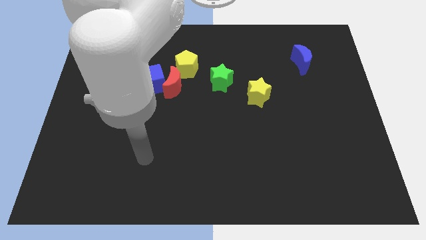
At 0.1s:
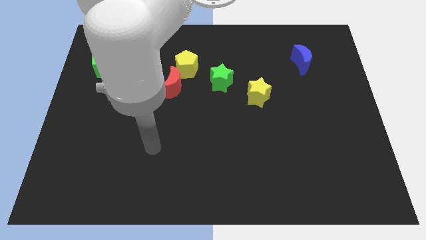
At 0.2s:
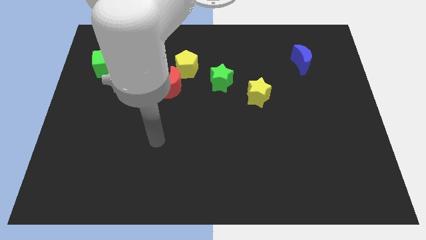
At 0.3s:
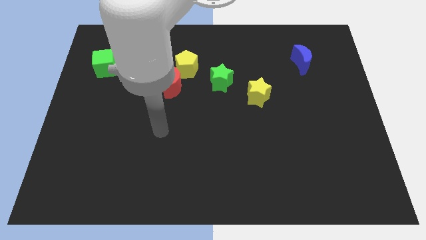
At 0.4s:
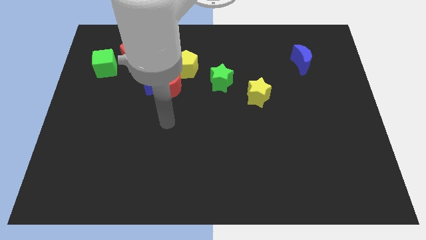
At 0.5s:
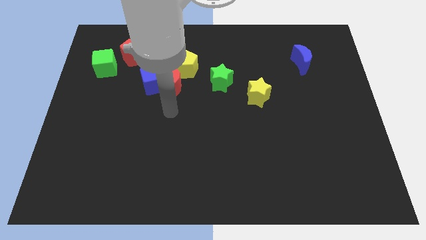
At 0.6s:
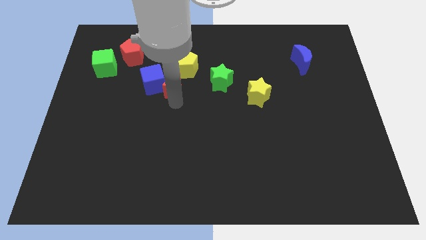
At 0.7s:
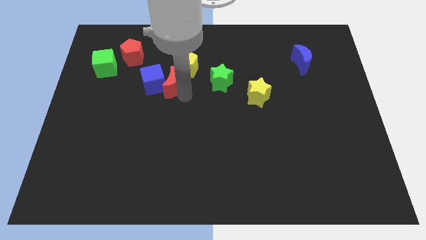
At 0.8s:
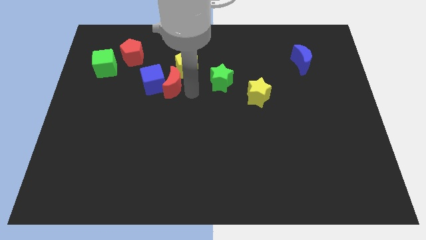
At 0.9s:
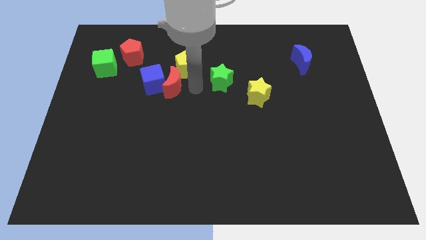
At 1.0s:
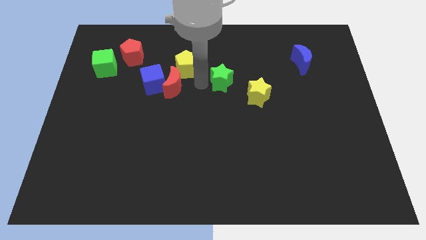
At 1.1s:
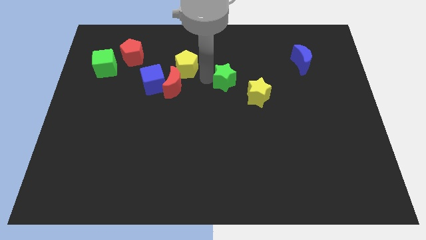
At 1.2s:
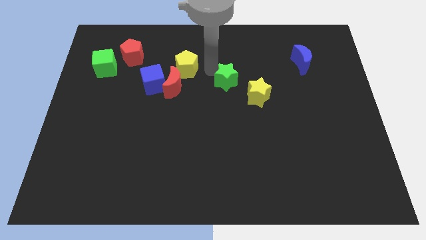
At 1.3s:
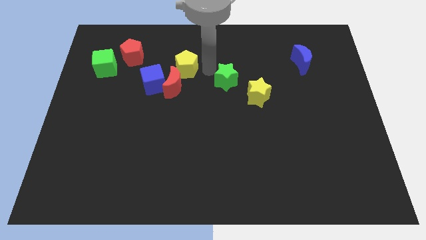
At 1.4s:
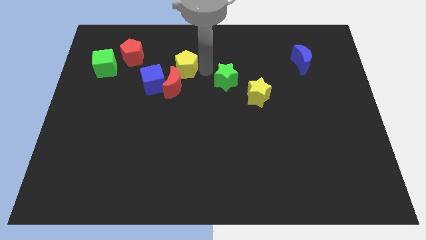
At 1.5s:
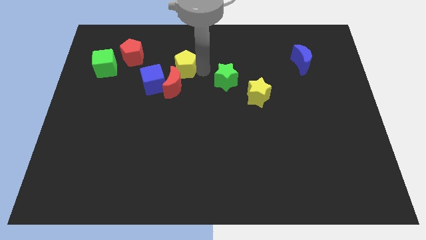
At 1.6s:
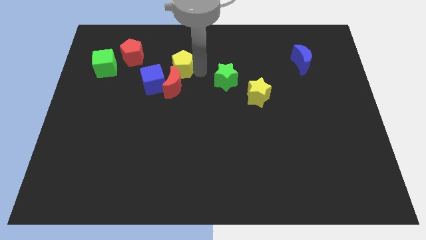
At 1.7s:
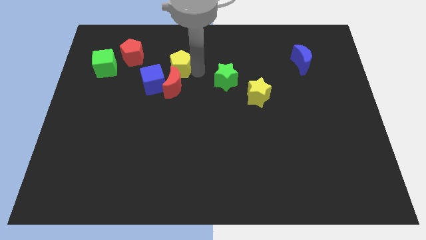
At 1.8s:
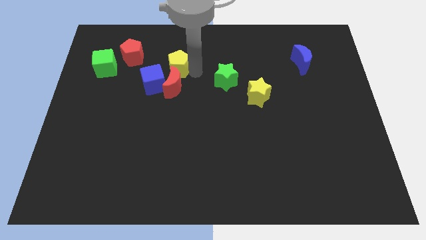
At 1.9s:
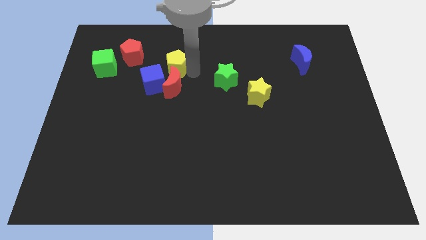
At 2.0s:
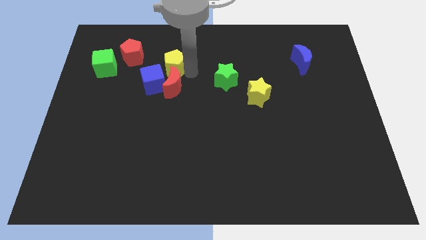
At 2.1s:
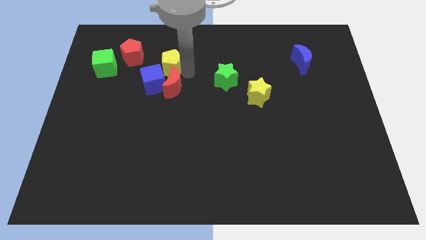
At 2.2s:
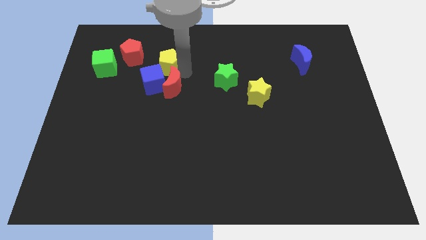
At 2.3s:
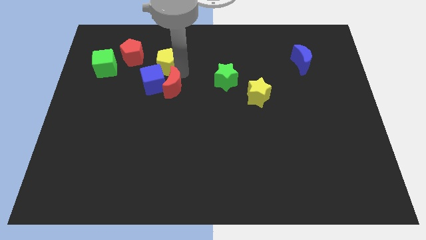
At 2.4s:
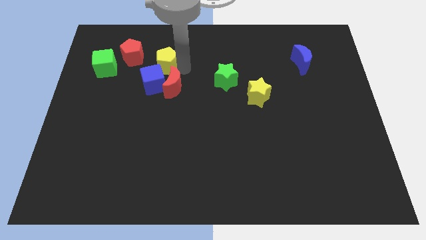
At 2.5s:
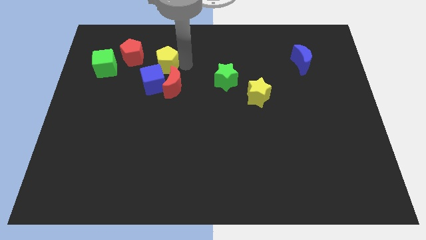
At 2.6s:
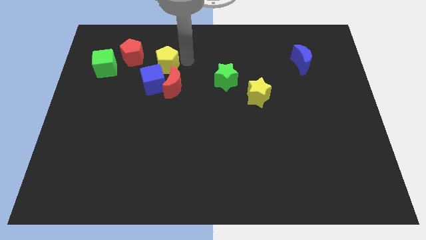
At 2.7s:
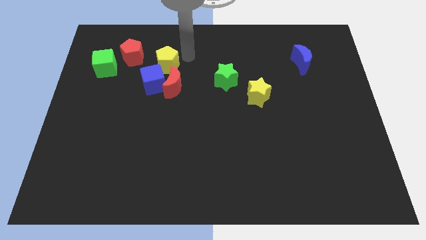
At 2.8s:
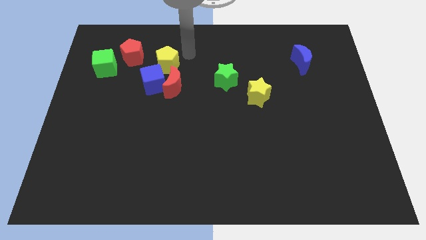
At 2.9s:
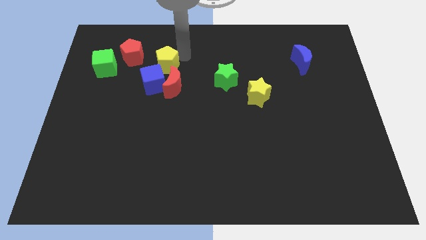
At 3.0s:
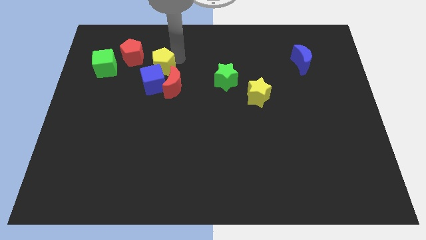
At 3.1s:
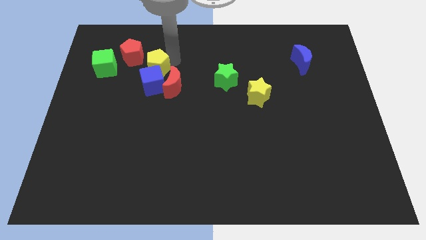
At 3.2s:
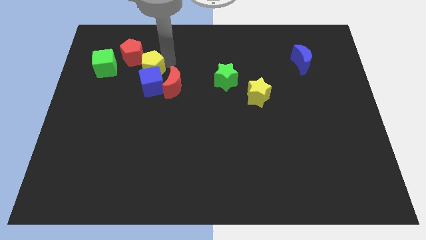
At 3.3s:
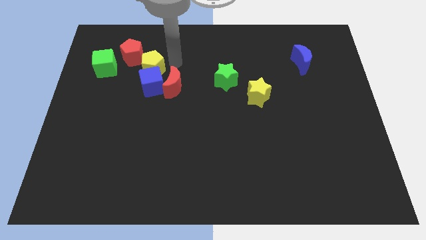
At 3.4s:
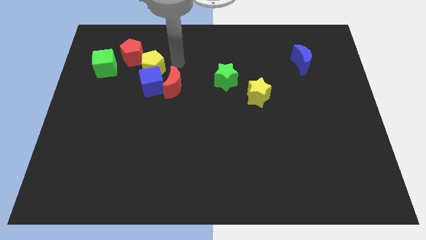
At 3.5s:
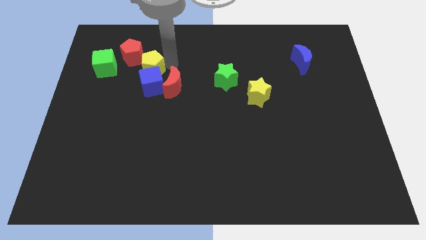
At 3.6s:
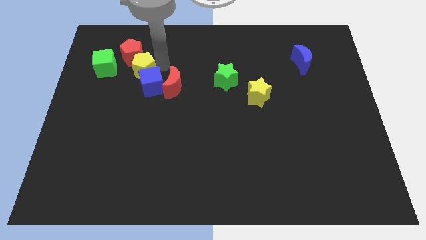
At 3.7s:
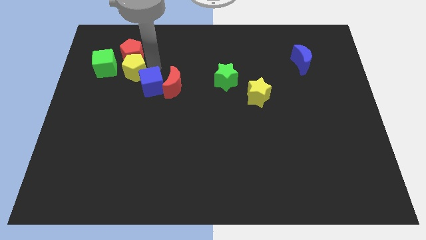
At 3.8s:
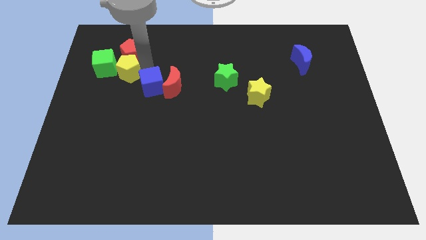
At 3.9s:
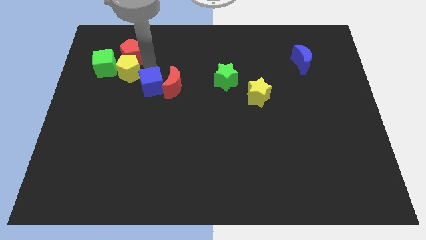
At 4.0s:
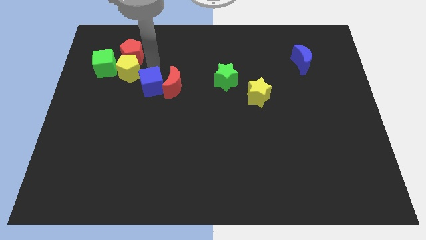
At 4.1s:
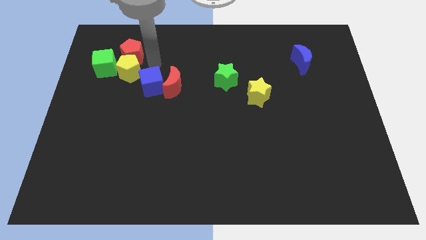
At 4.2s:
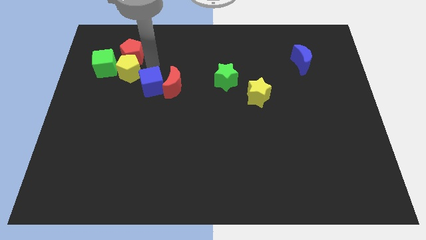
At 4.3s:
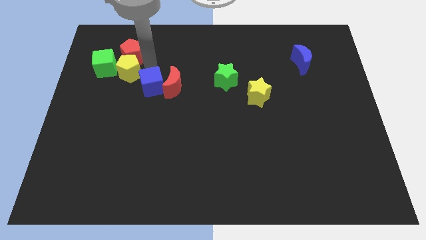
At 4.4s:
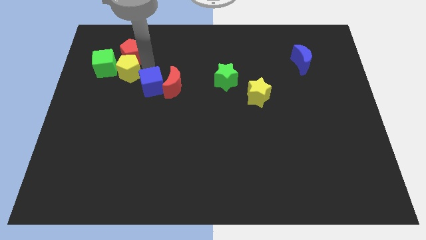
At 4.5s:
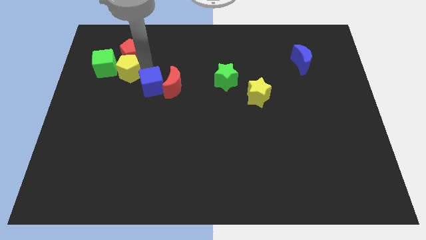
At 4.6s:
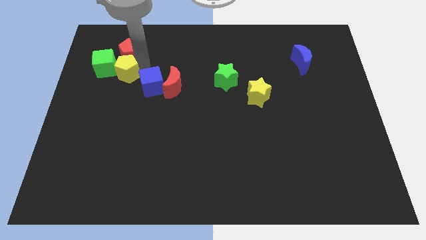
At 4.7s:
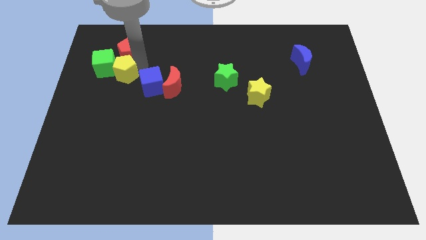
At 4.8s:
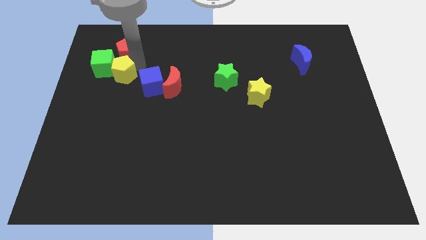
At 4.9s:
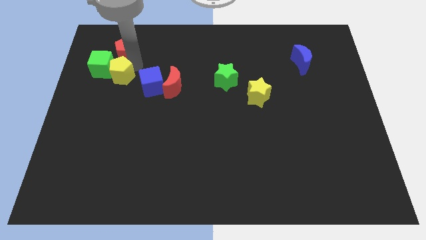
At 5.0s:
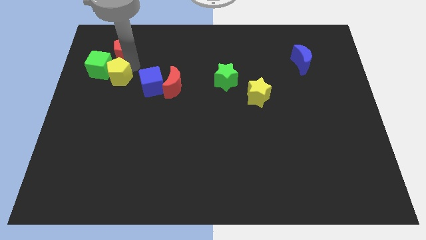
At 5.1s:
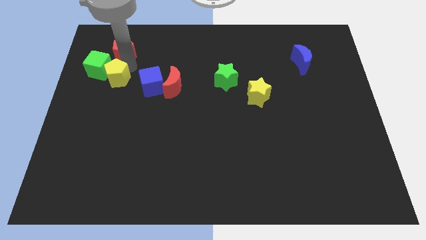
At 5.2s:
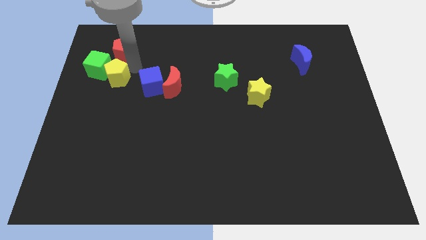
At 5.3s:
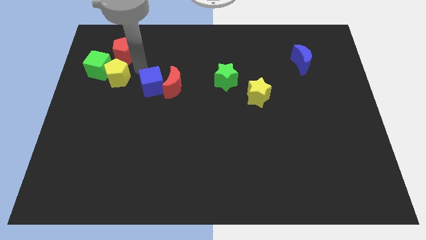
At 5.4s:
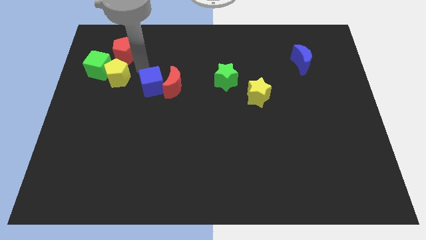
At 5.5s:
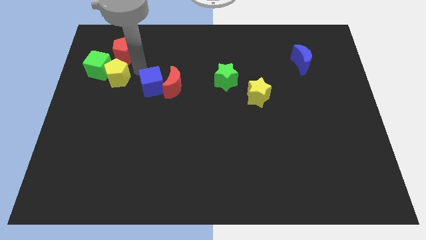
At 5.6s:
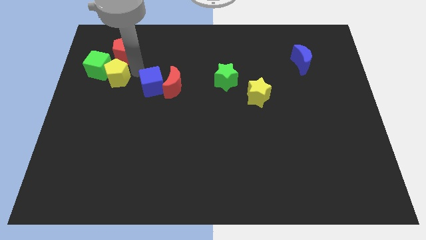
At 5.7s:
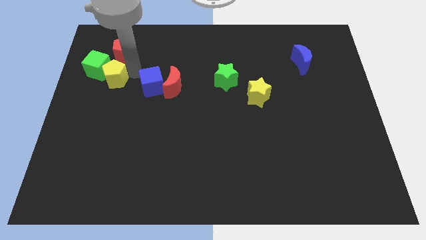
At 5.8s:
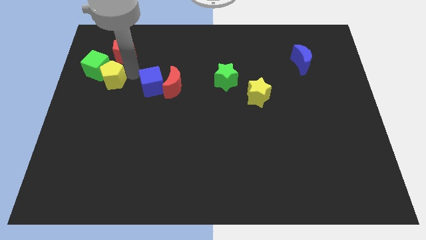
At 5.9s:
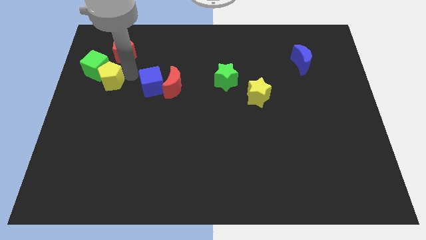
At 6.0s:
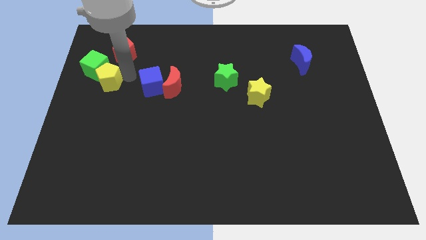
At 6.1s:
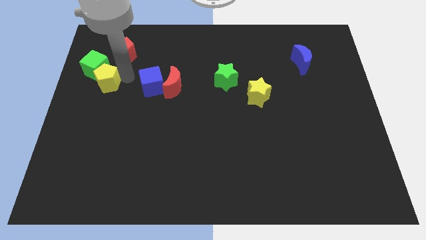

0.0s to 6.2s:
move the yellow pentagon to the center left
